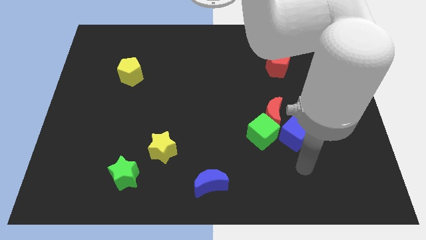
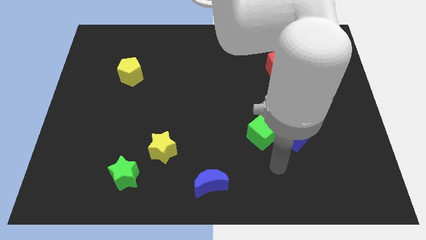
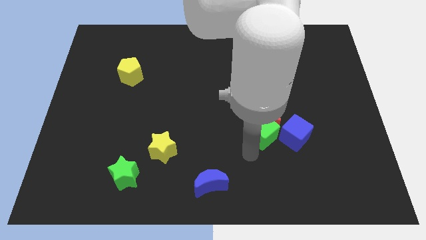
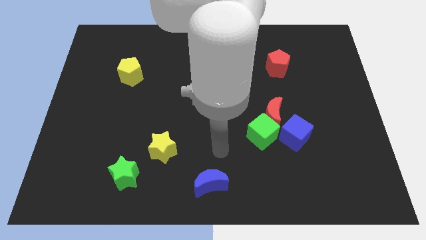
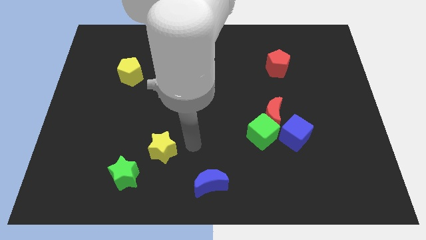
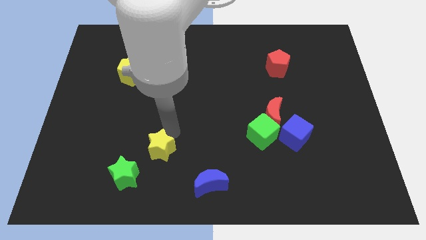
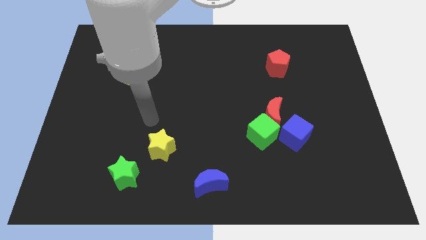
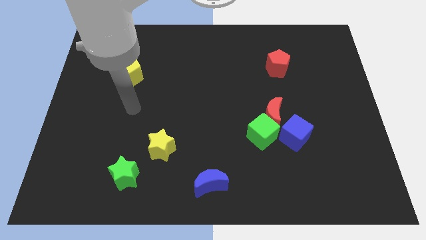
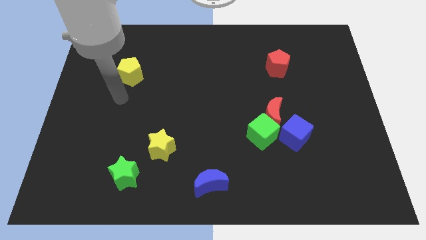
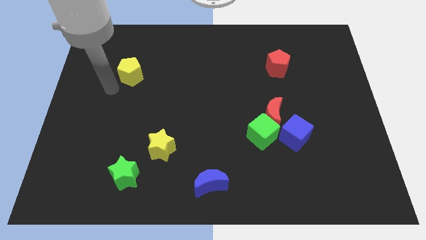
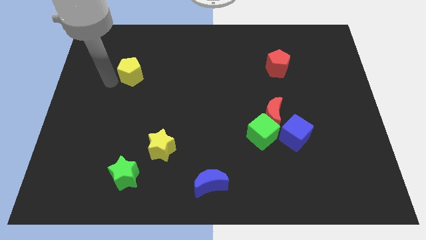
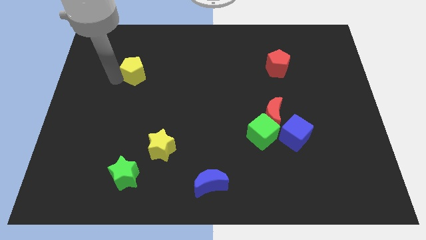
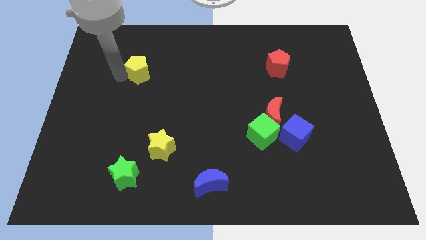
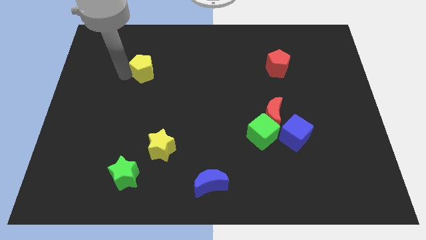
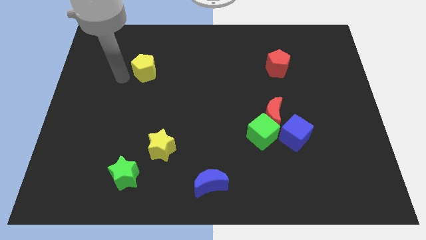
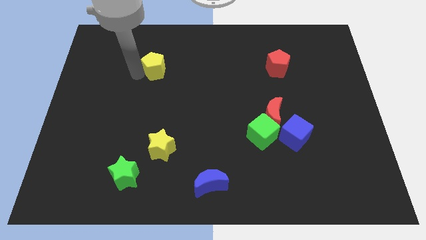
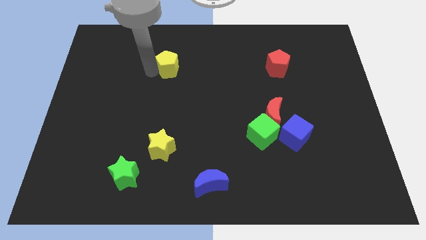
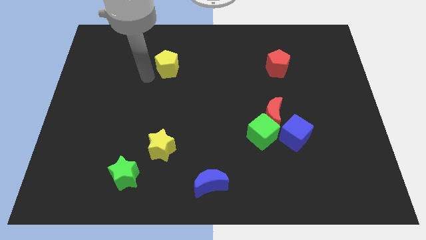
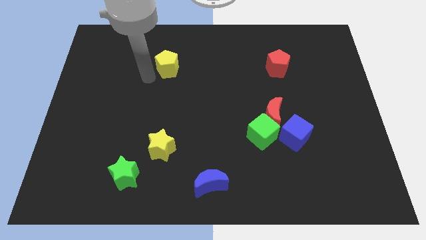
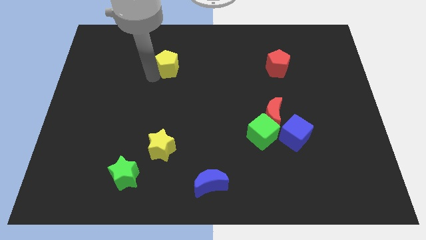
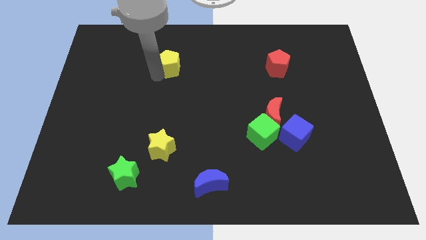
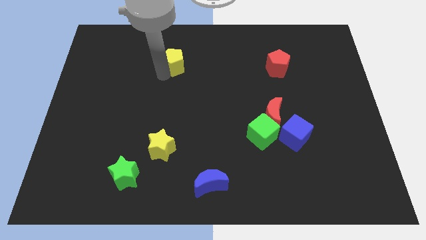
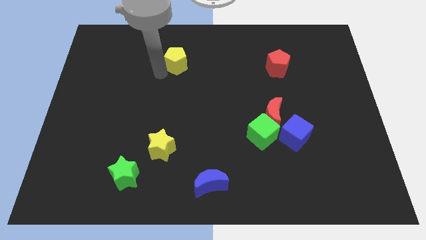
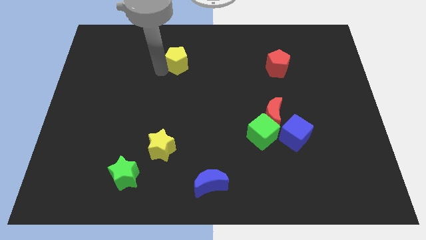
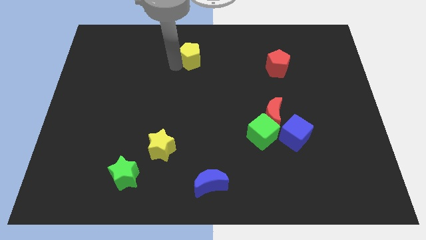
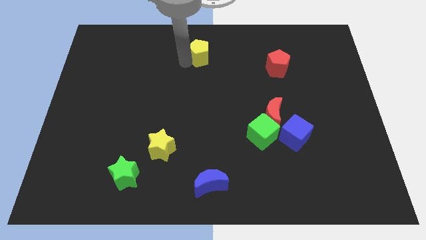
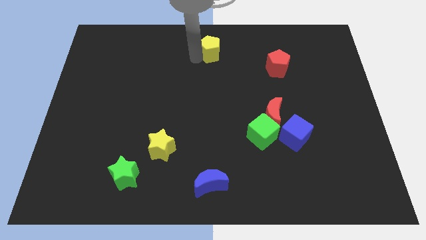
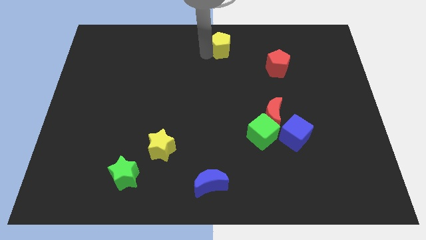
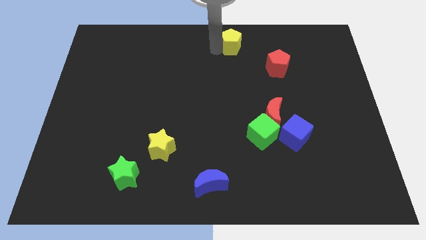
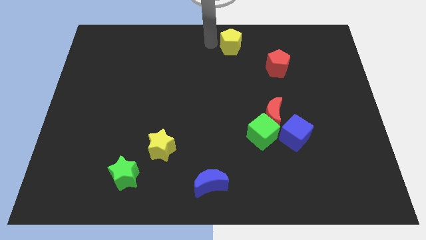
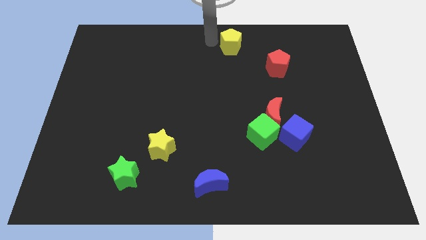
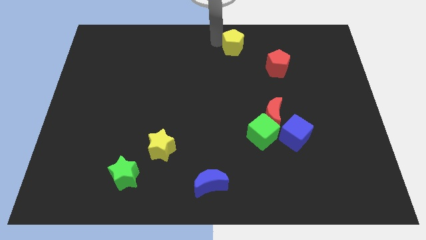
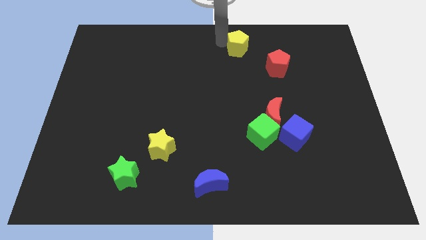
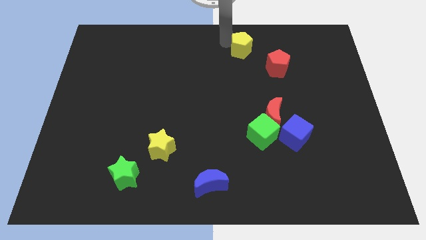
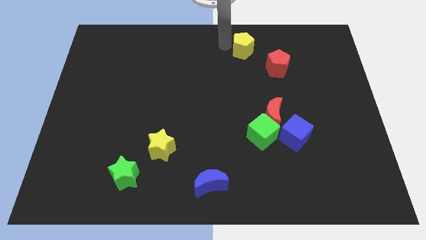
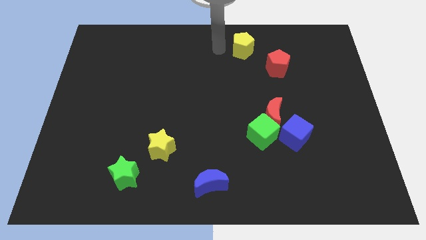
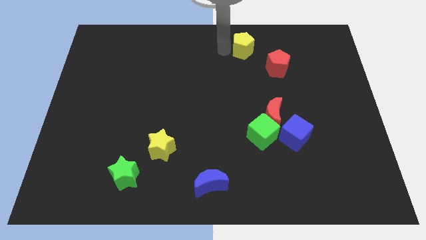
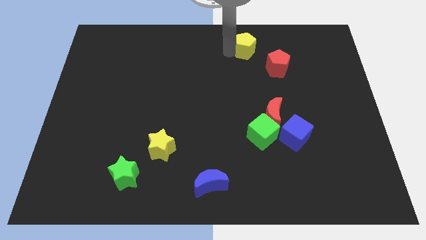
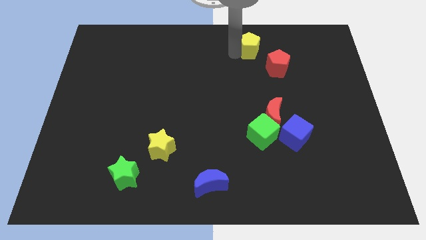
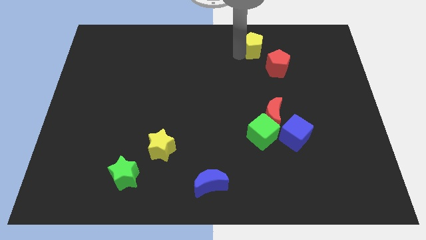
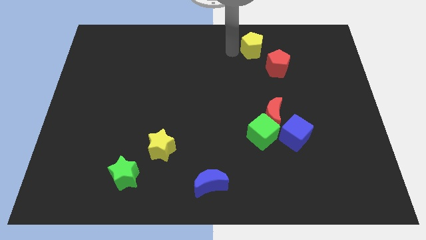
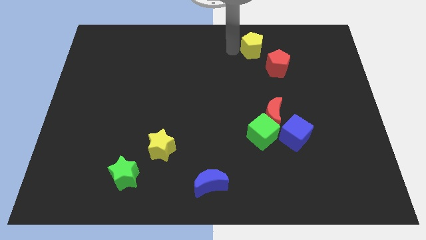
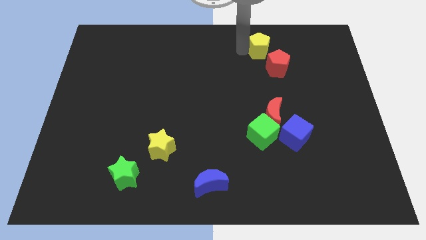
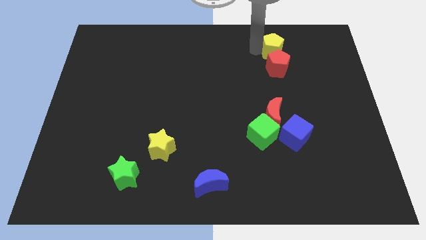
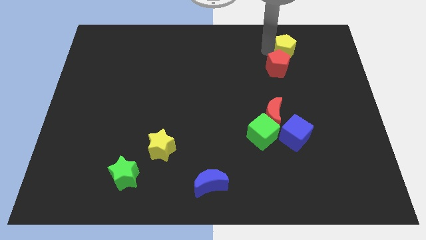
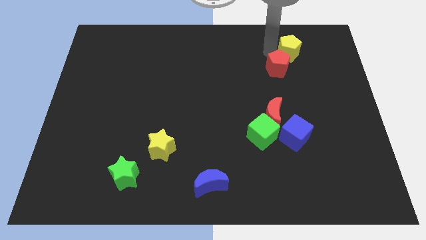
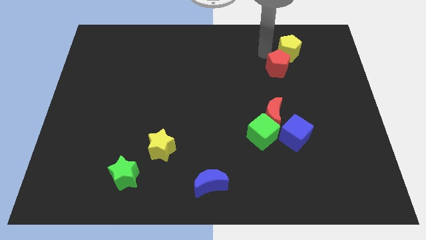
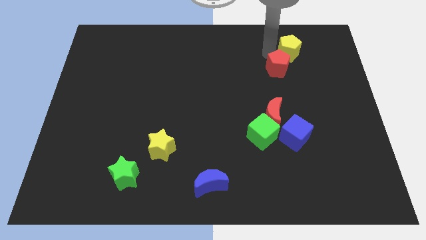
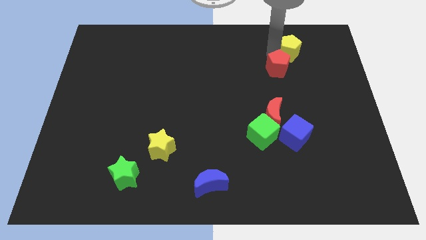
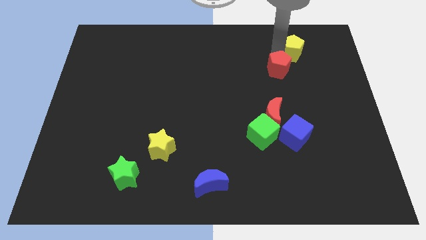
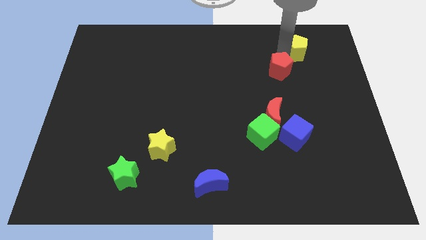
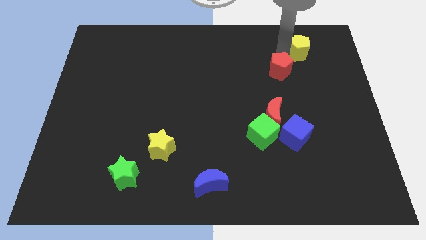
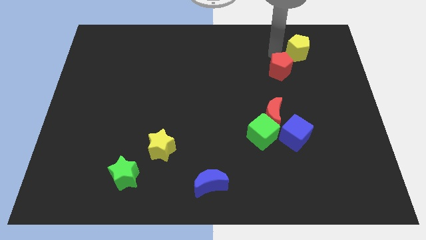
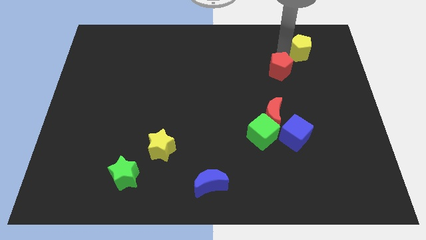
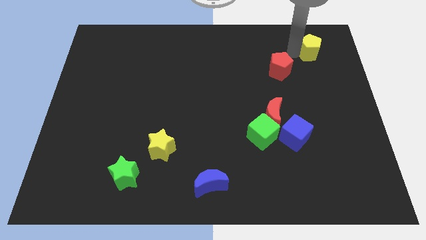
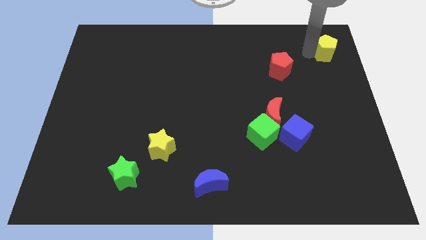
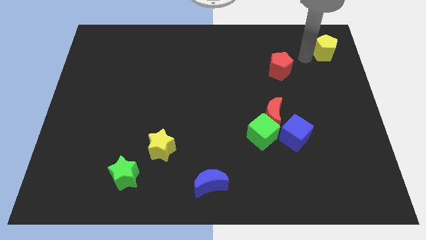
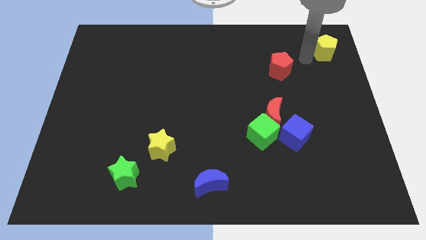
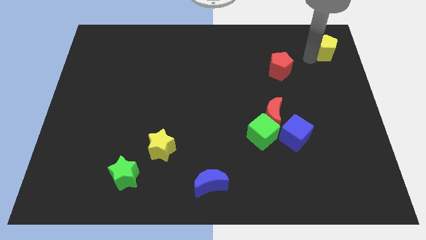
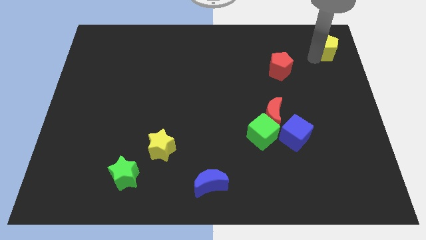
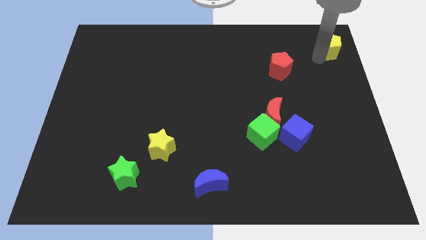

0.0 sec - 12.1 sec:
slide the yellow pentagon to the top right
